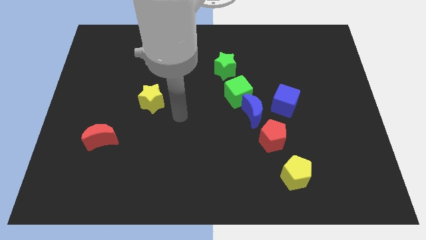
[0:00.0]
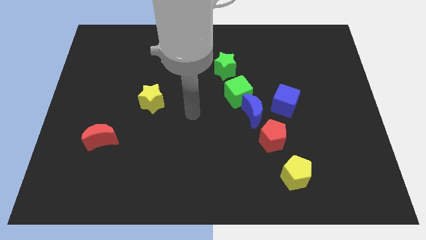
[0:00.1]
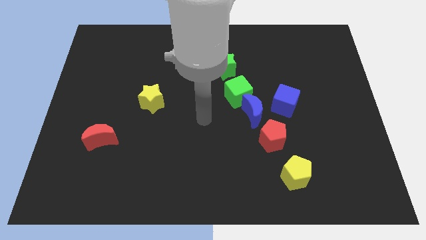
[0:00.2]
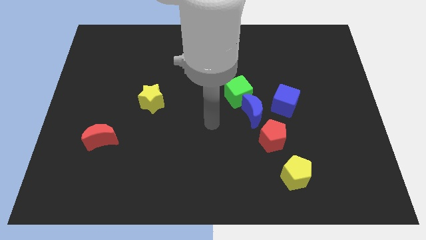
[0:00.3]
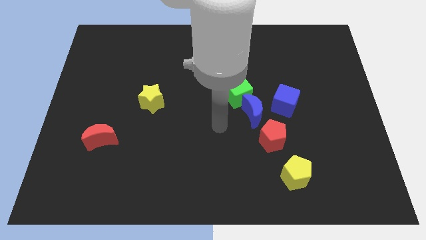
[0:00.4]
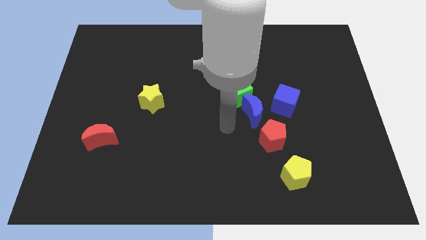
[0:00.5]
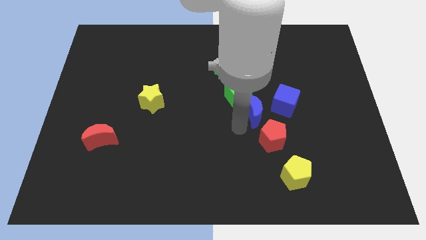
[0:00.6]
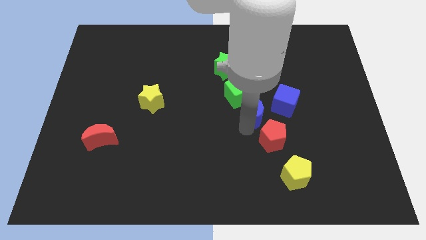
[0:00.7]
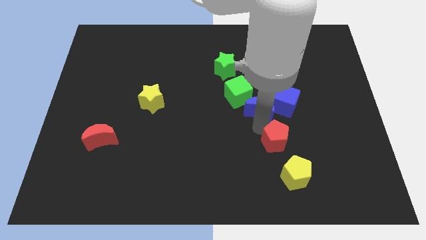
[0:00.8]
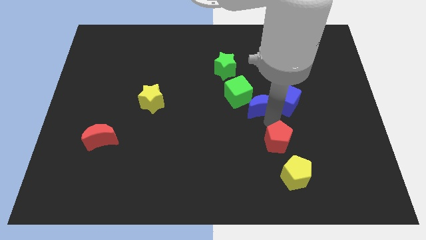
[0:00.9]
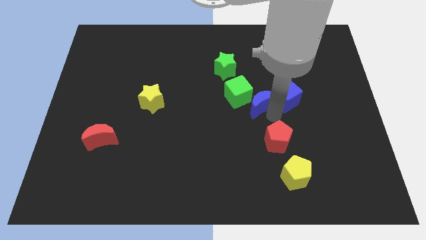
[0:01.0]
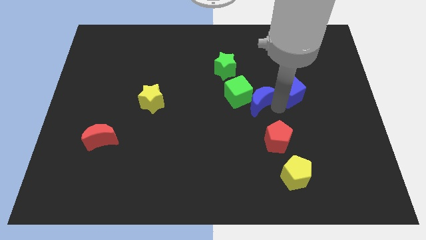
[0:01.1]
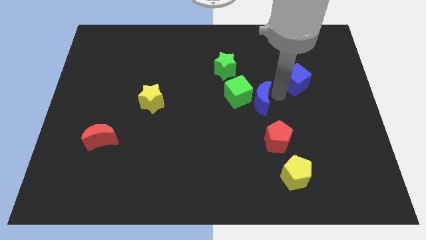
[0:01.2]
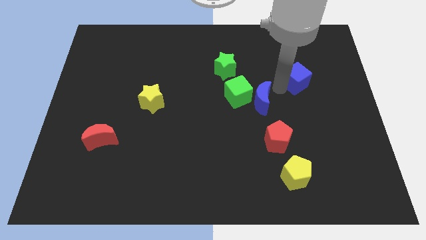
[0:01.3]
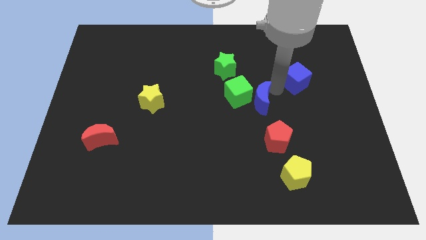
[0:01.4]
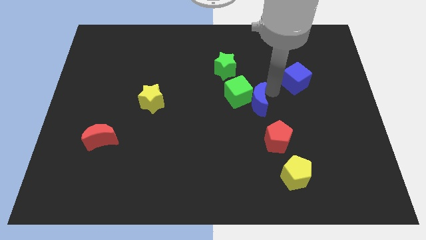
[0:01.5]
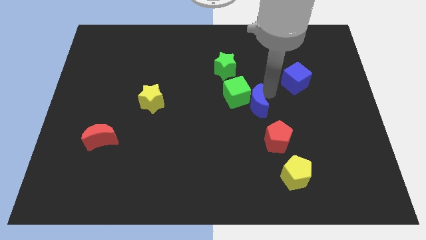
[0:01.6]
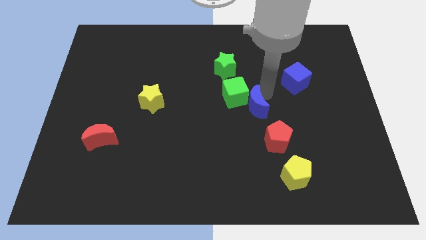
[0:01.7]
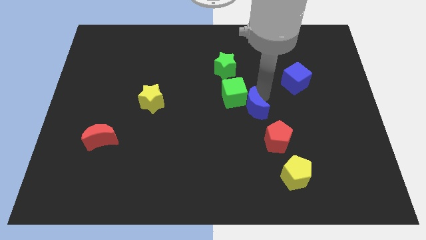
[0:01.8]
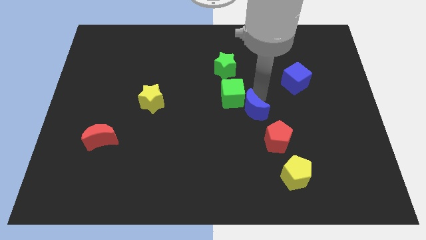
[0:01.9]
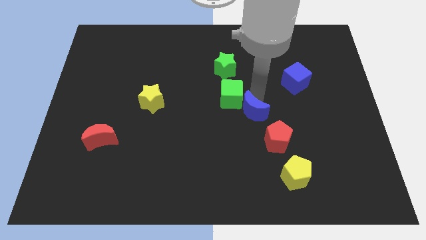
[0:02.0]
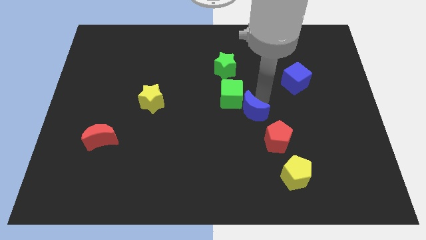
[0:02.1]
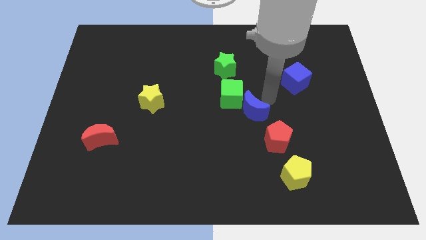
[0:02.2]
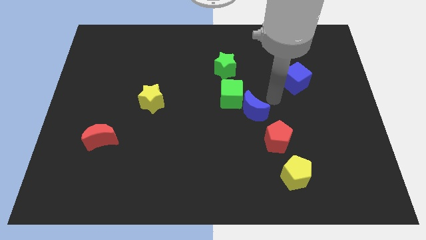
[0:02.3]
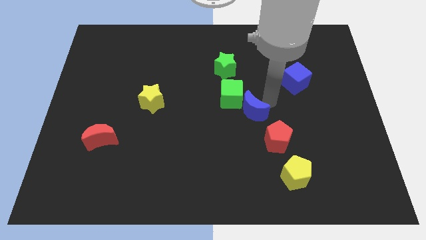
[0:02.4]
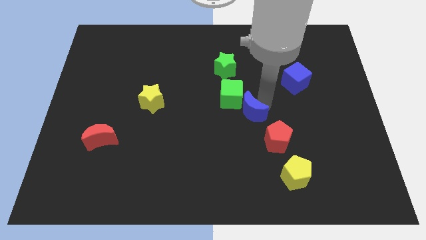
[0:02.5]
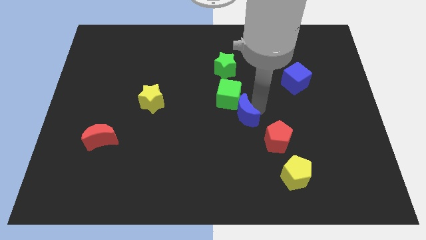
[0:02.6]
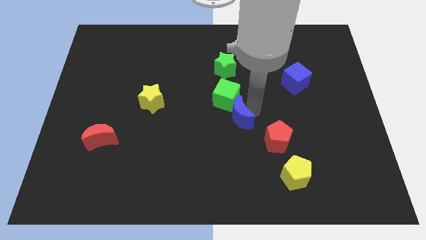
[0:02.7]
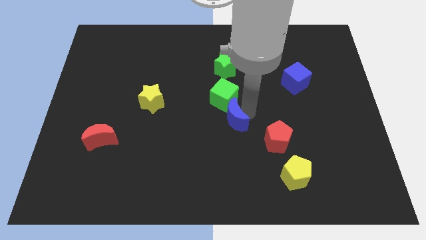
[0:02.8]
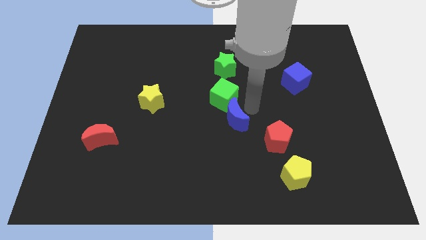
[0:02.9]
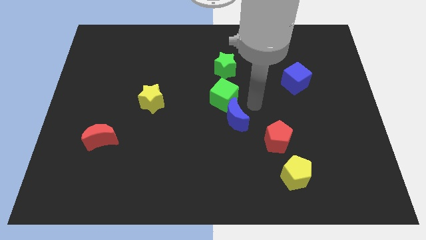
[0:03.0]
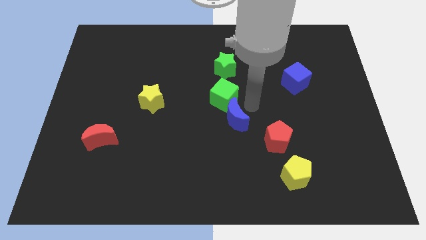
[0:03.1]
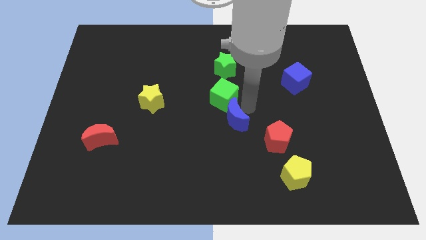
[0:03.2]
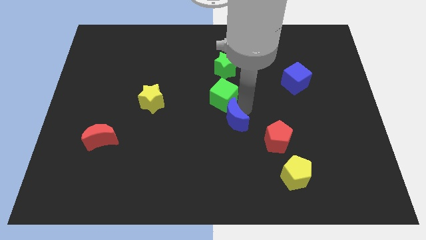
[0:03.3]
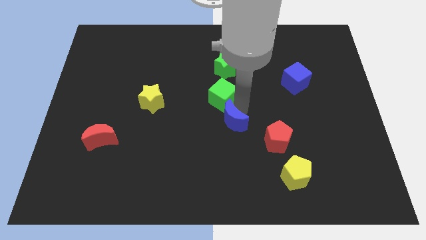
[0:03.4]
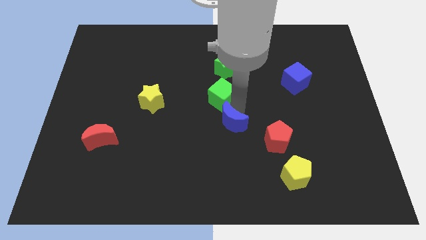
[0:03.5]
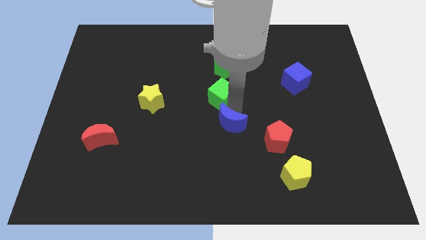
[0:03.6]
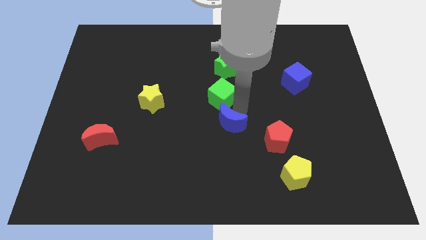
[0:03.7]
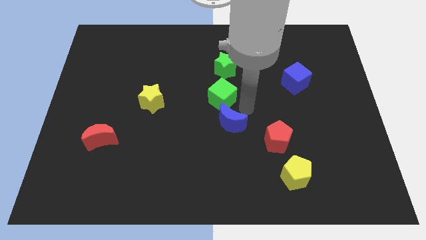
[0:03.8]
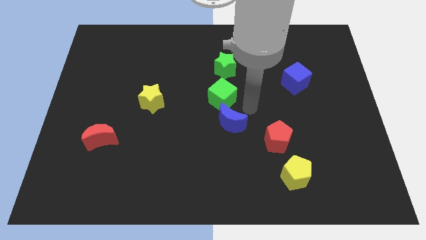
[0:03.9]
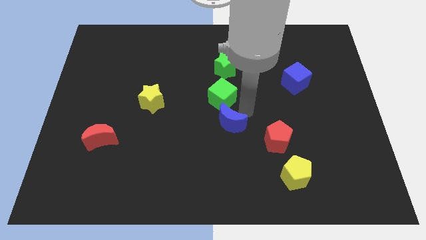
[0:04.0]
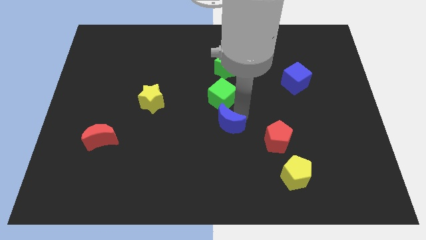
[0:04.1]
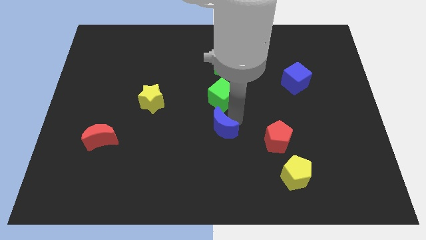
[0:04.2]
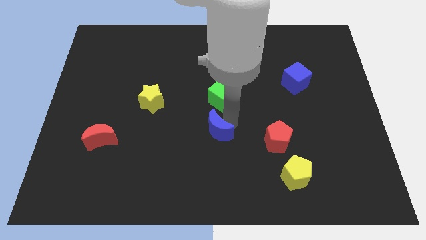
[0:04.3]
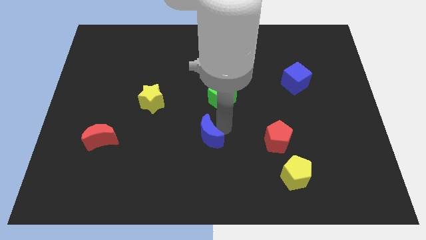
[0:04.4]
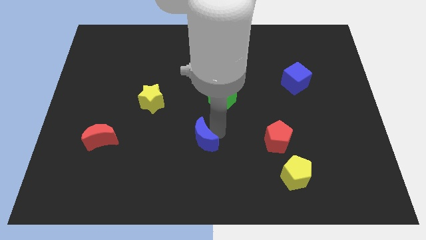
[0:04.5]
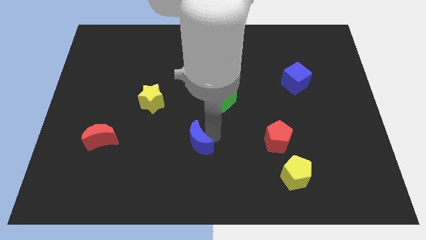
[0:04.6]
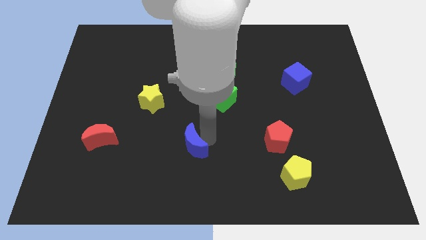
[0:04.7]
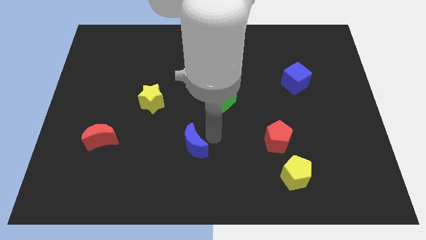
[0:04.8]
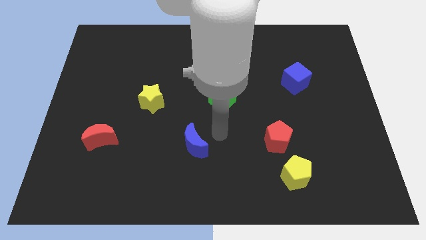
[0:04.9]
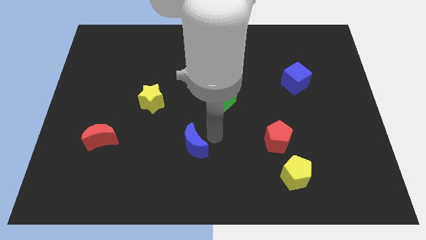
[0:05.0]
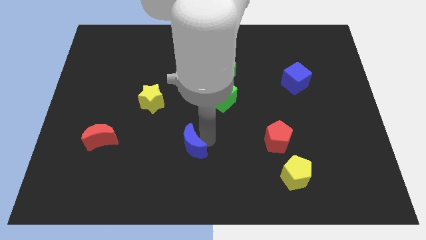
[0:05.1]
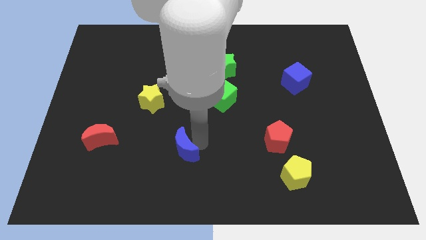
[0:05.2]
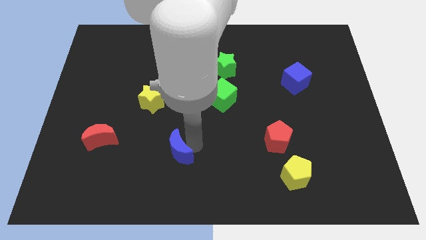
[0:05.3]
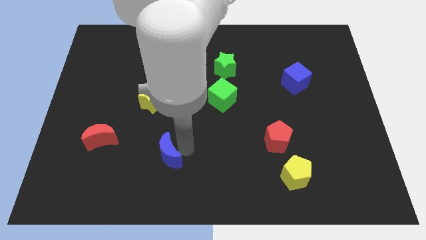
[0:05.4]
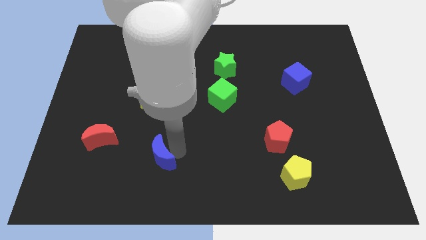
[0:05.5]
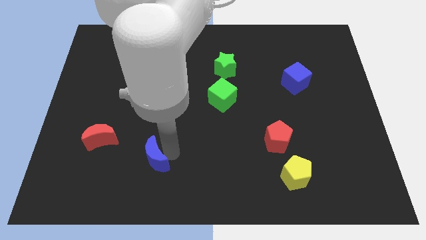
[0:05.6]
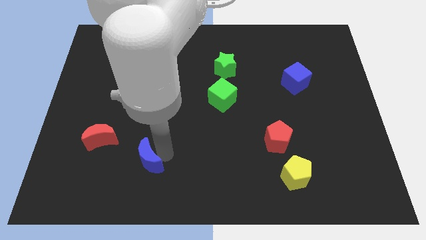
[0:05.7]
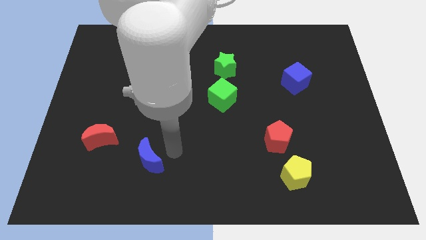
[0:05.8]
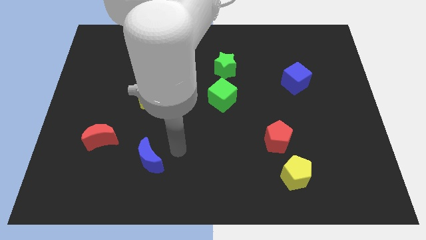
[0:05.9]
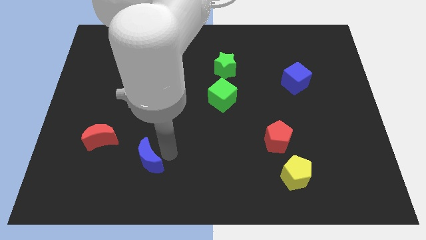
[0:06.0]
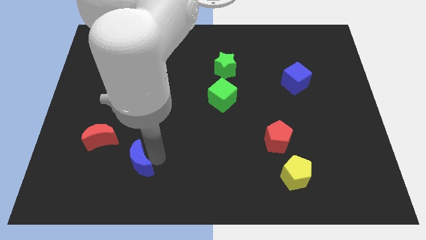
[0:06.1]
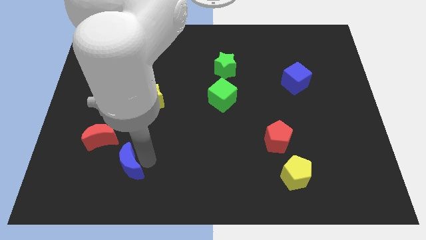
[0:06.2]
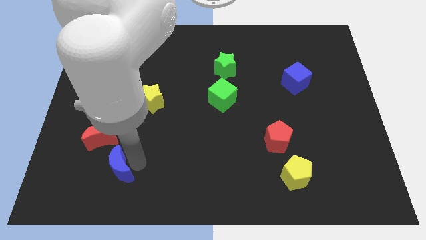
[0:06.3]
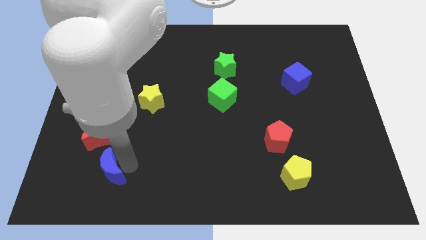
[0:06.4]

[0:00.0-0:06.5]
put the blue moon below the red moon
